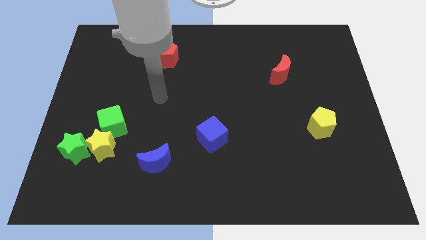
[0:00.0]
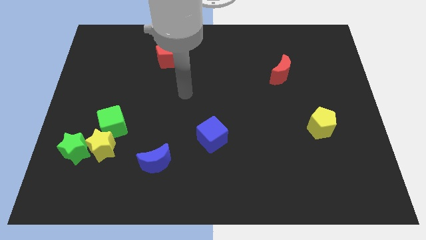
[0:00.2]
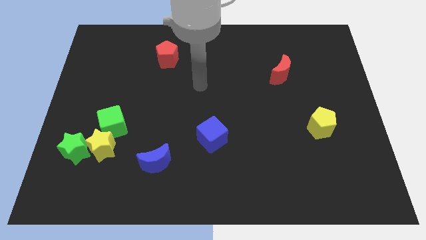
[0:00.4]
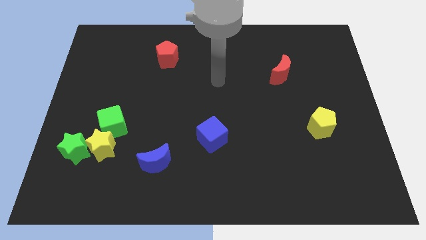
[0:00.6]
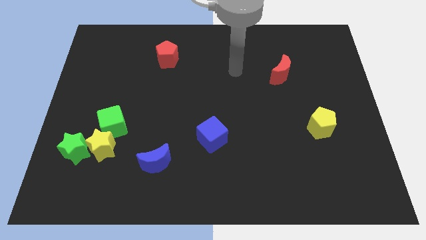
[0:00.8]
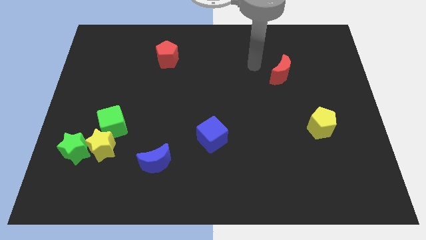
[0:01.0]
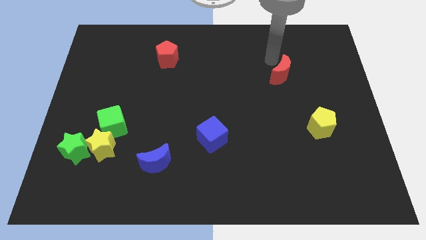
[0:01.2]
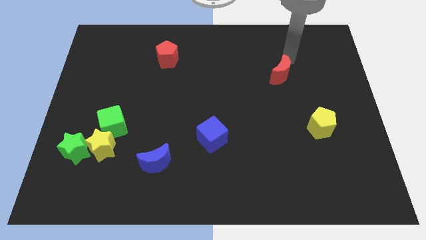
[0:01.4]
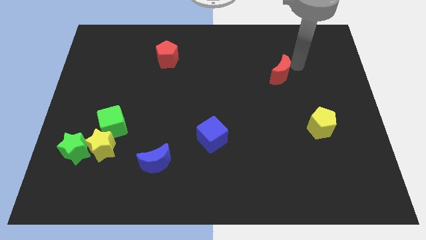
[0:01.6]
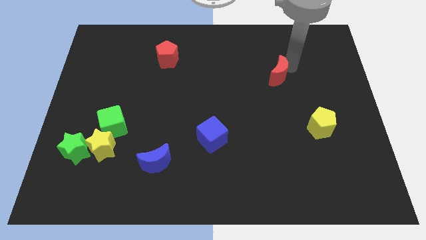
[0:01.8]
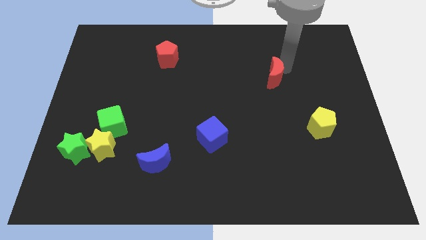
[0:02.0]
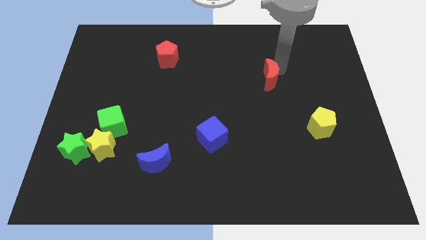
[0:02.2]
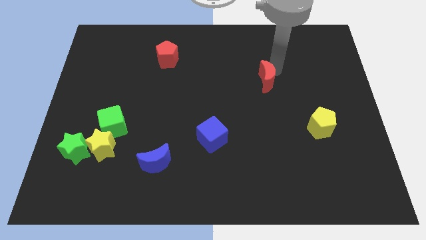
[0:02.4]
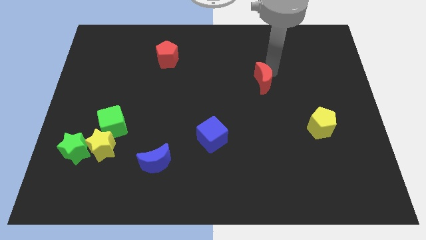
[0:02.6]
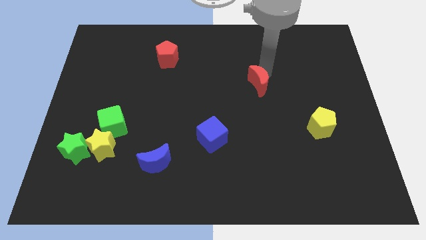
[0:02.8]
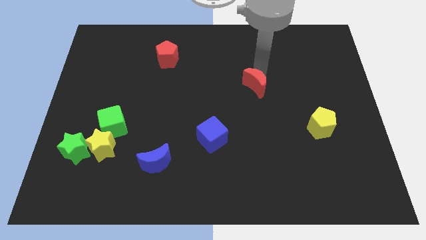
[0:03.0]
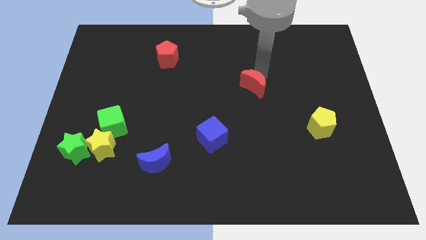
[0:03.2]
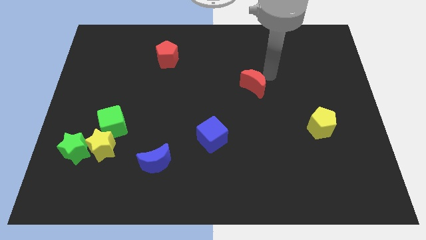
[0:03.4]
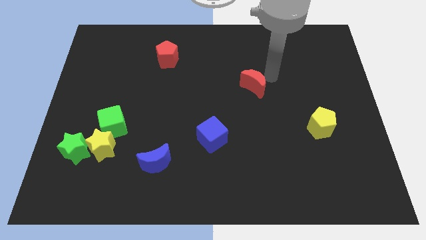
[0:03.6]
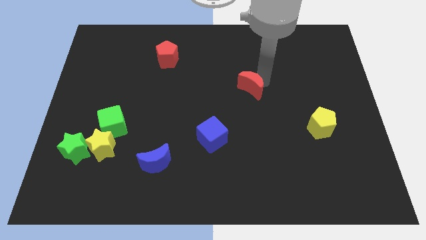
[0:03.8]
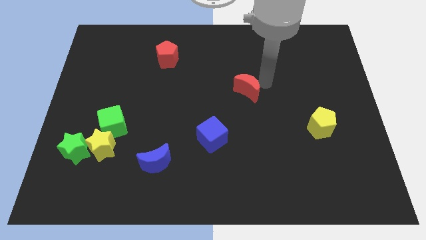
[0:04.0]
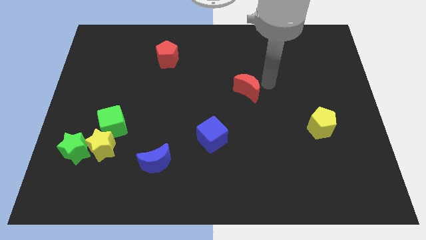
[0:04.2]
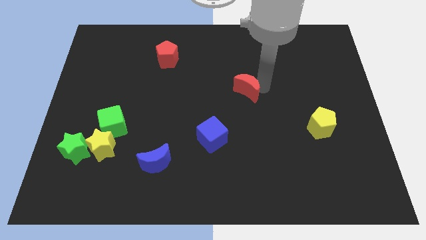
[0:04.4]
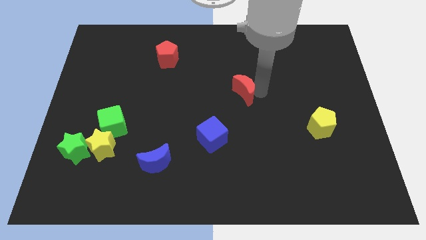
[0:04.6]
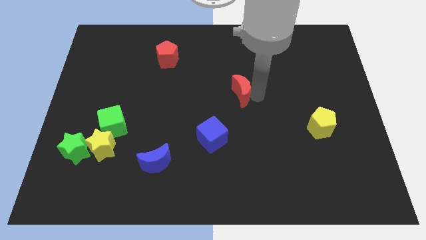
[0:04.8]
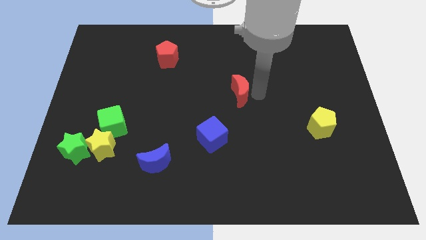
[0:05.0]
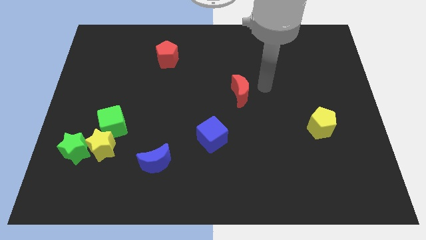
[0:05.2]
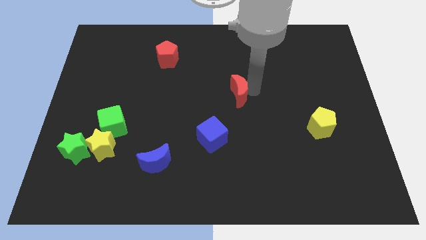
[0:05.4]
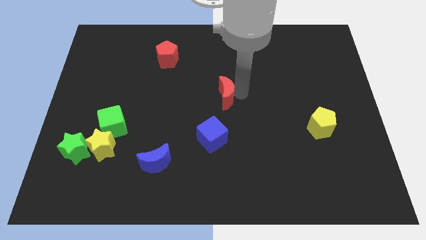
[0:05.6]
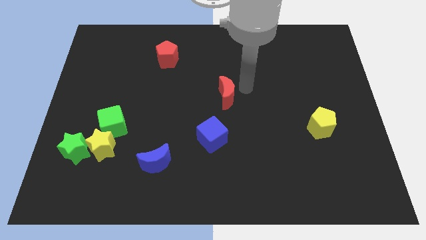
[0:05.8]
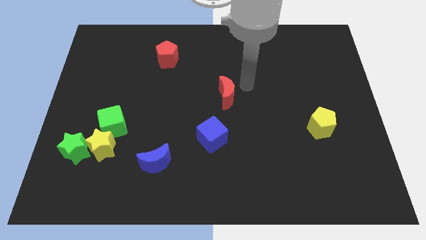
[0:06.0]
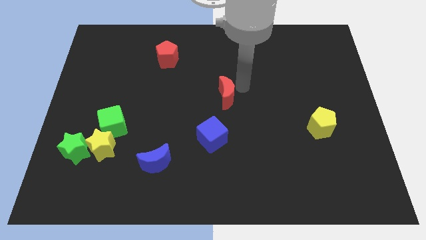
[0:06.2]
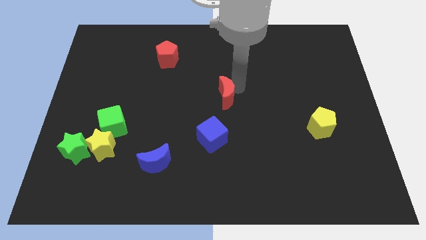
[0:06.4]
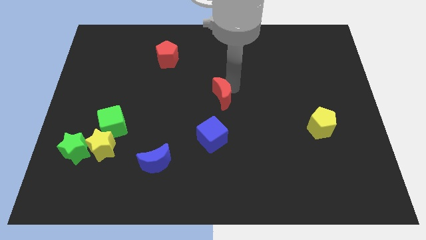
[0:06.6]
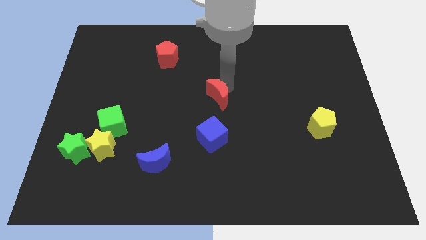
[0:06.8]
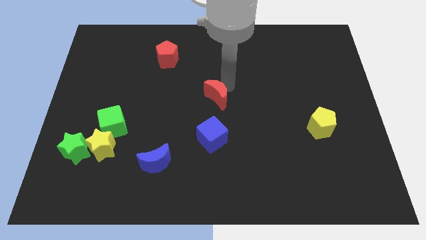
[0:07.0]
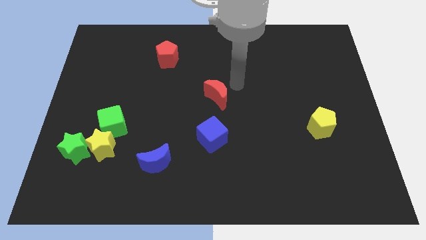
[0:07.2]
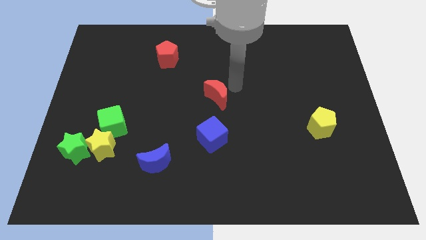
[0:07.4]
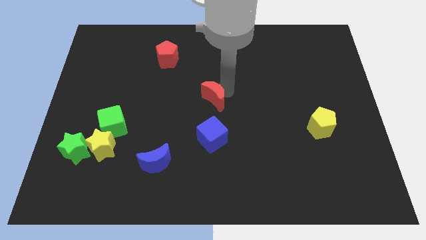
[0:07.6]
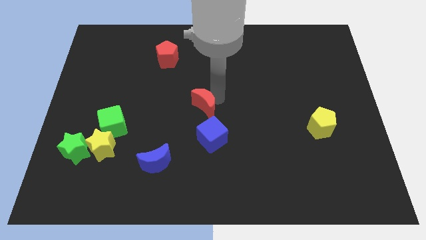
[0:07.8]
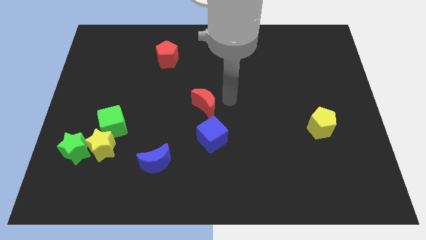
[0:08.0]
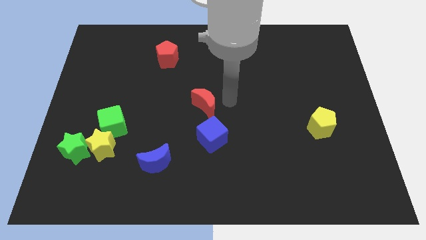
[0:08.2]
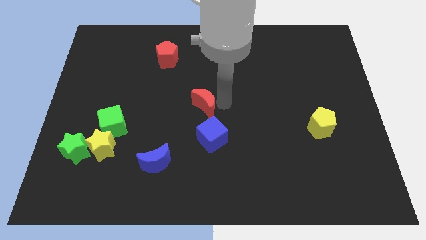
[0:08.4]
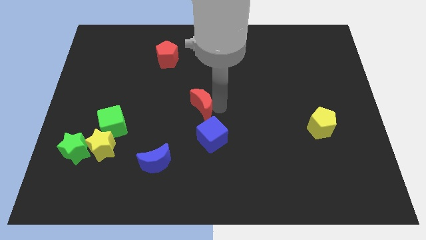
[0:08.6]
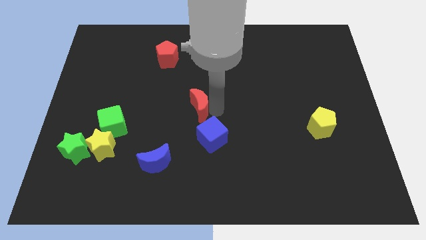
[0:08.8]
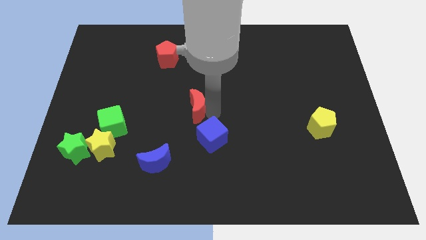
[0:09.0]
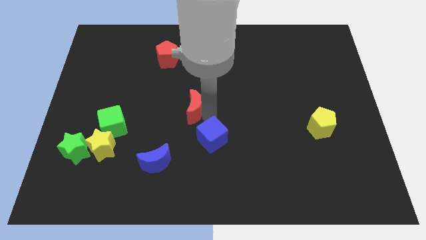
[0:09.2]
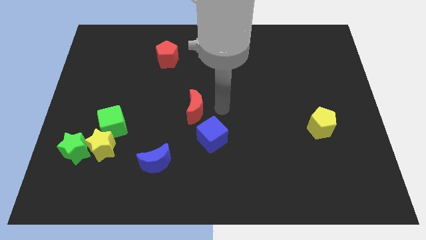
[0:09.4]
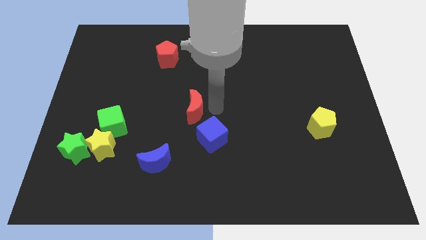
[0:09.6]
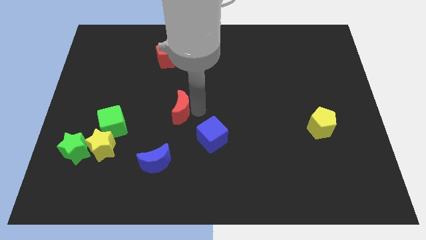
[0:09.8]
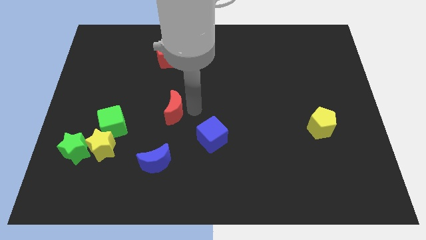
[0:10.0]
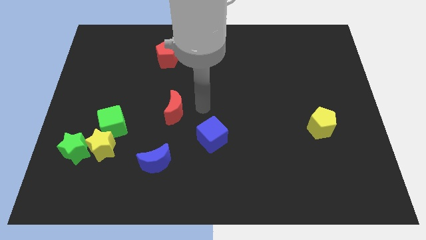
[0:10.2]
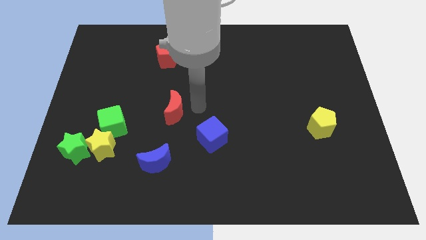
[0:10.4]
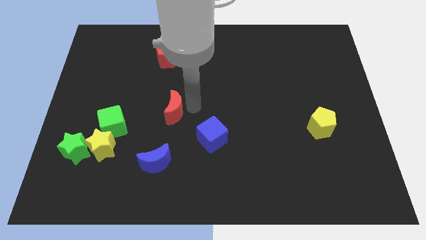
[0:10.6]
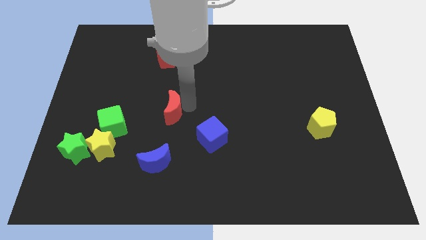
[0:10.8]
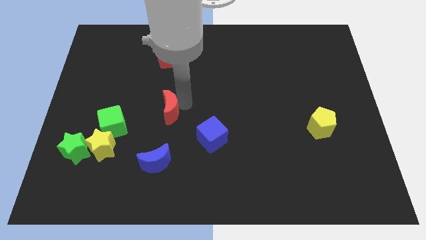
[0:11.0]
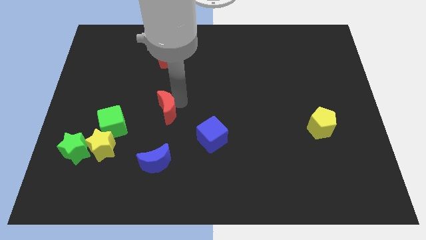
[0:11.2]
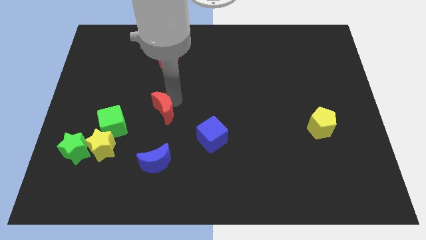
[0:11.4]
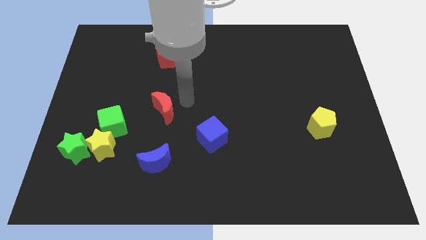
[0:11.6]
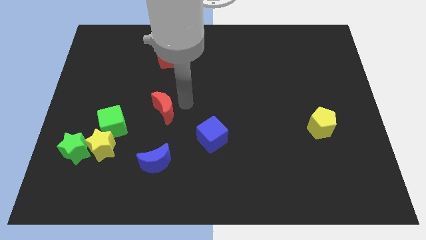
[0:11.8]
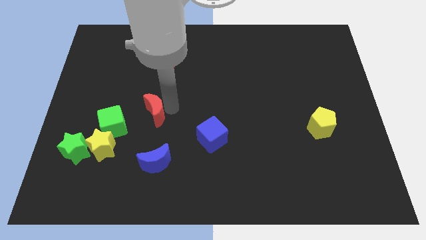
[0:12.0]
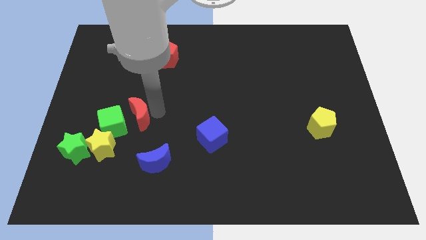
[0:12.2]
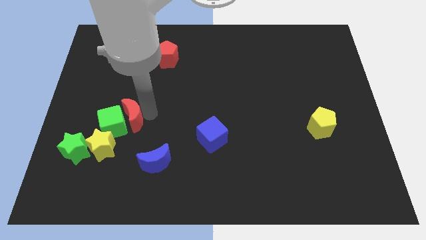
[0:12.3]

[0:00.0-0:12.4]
put the red moon to the green cube

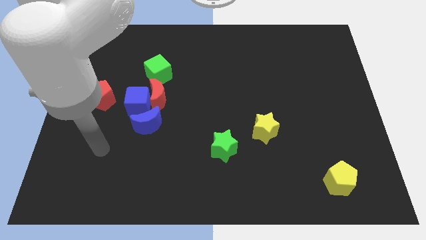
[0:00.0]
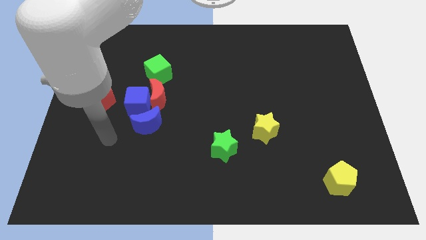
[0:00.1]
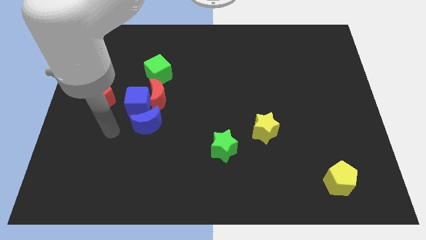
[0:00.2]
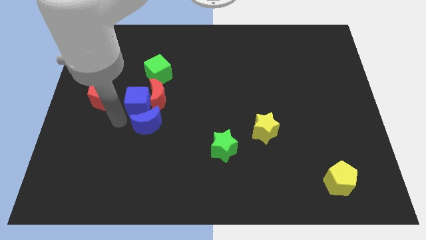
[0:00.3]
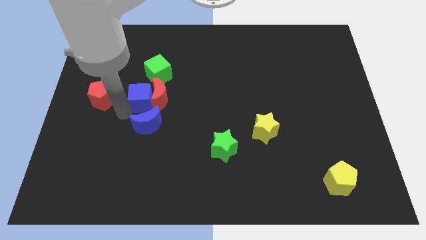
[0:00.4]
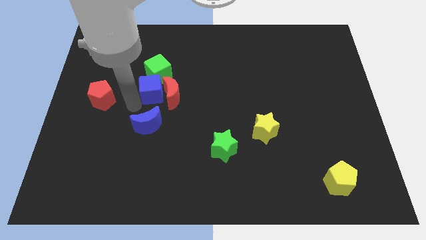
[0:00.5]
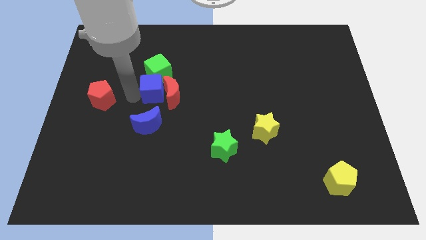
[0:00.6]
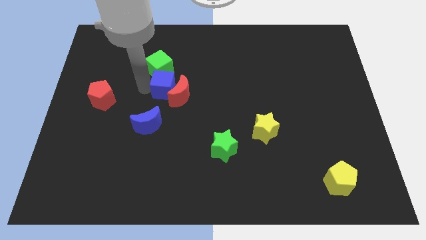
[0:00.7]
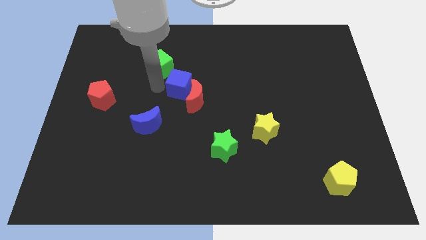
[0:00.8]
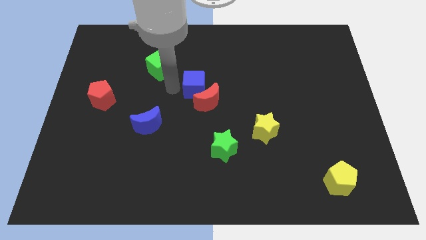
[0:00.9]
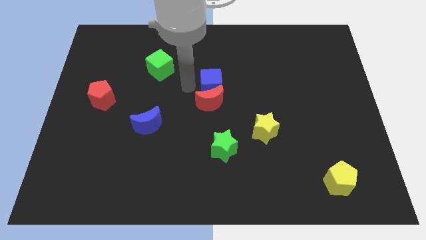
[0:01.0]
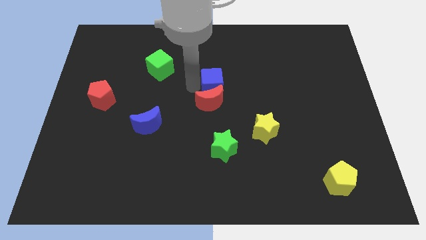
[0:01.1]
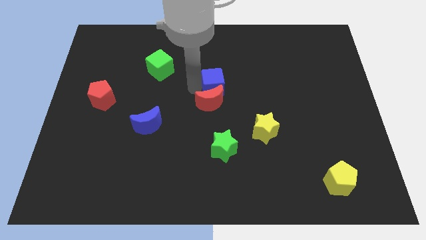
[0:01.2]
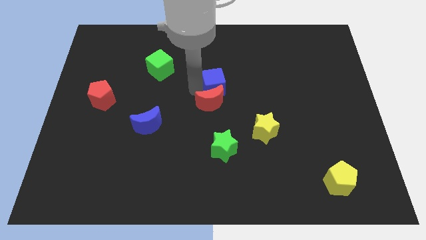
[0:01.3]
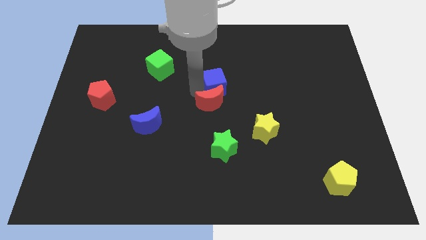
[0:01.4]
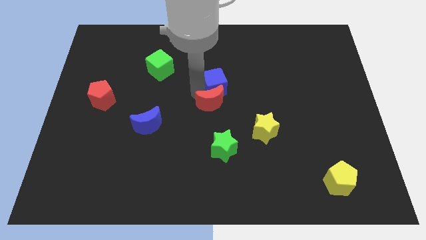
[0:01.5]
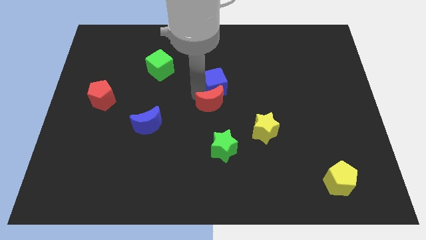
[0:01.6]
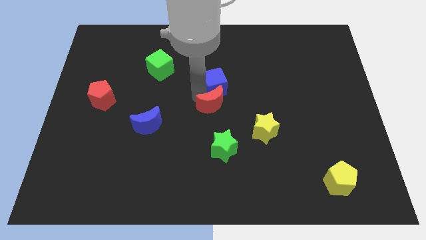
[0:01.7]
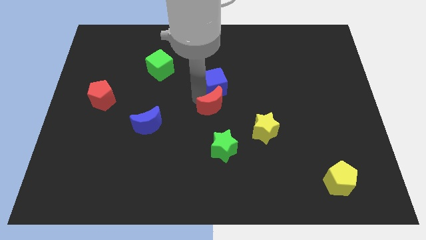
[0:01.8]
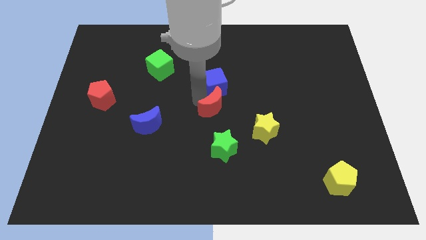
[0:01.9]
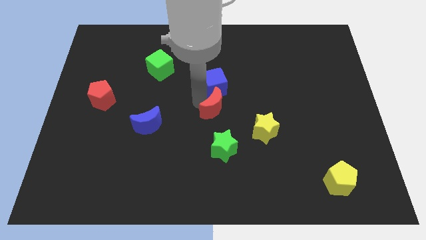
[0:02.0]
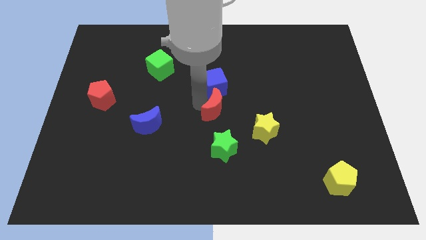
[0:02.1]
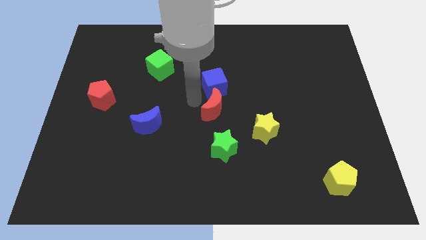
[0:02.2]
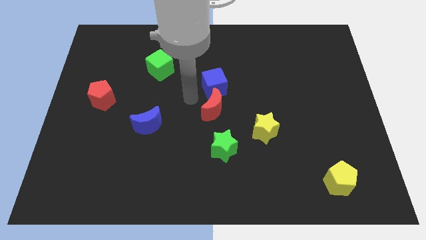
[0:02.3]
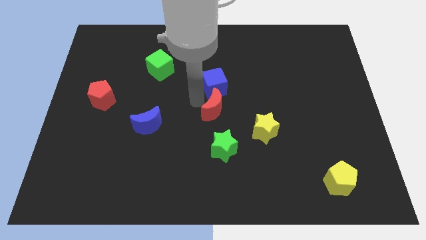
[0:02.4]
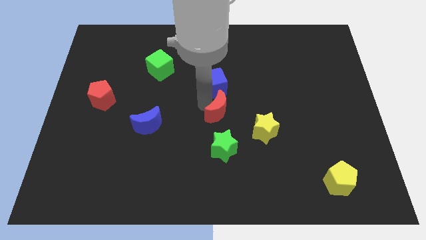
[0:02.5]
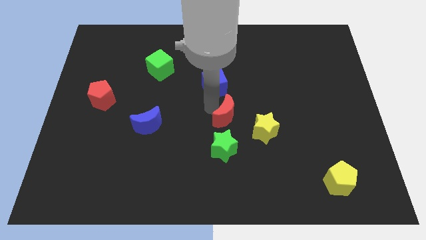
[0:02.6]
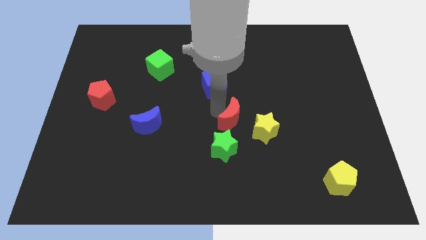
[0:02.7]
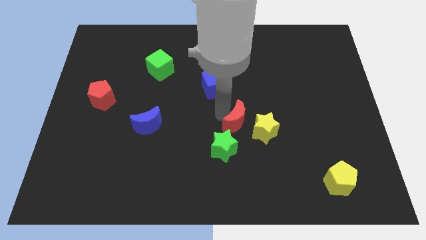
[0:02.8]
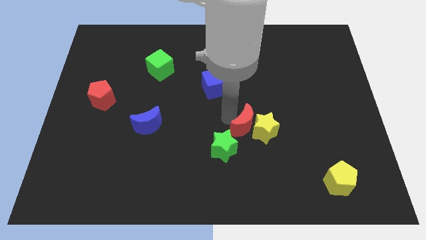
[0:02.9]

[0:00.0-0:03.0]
slide the red moon to the yellow star
